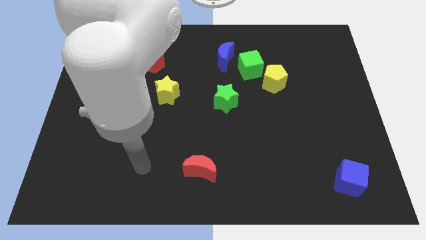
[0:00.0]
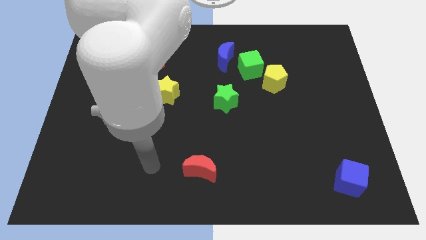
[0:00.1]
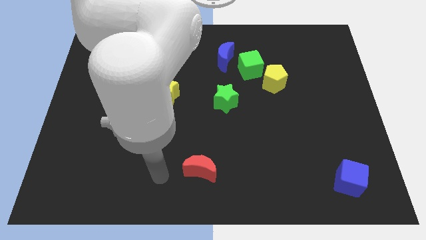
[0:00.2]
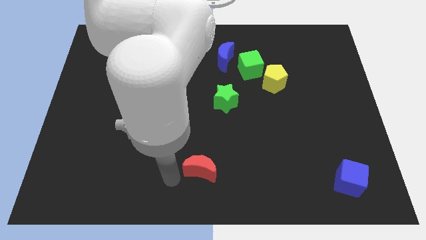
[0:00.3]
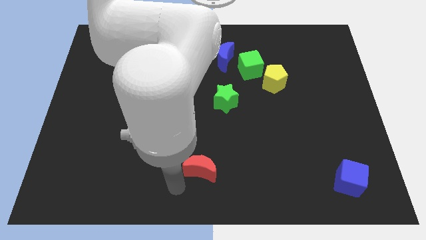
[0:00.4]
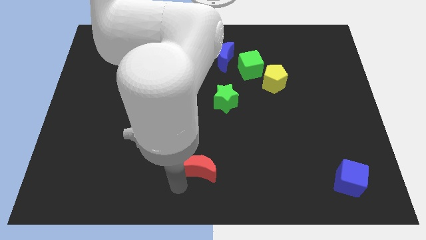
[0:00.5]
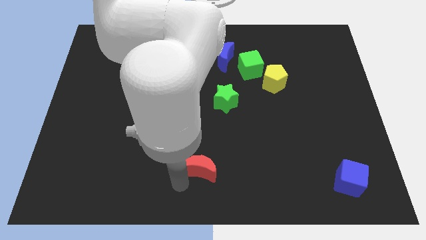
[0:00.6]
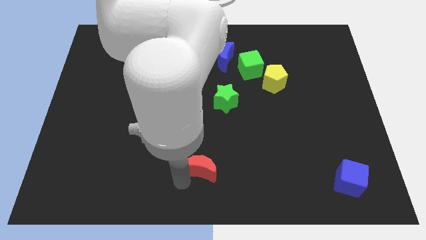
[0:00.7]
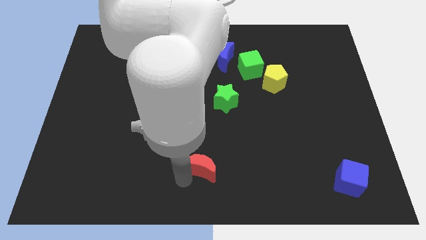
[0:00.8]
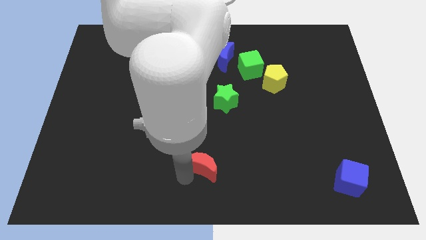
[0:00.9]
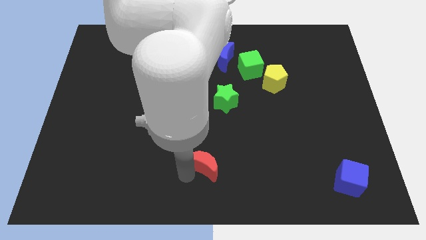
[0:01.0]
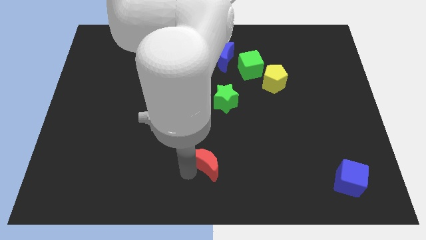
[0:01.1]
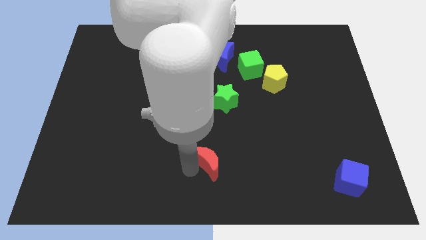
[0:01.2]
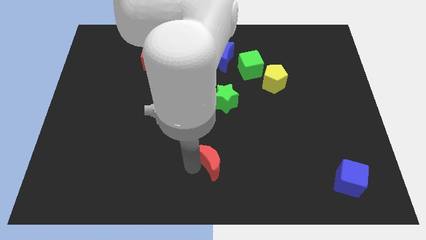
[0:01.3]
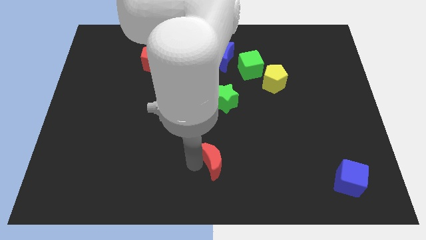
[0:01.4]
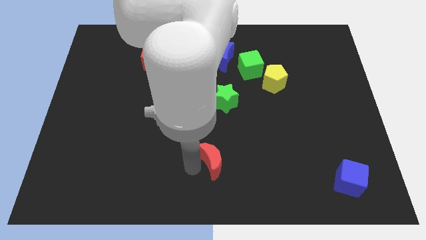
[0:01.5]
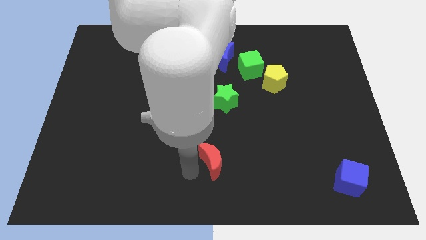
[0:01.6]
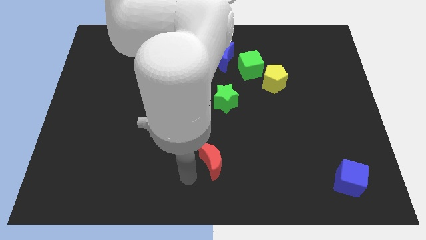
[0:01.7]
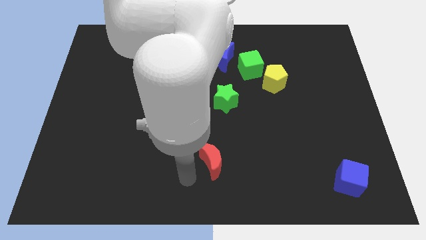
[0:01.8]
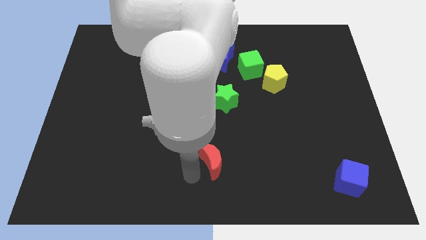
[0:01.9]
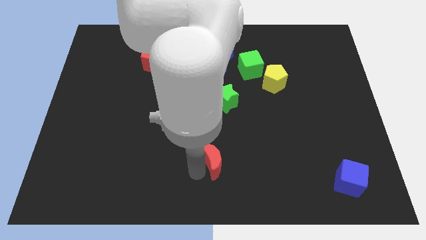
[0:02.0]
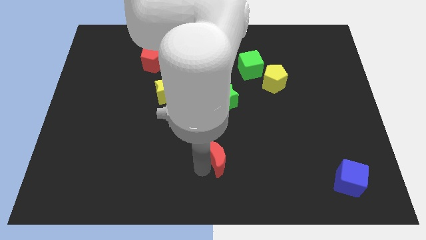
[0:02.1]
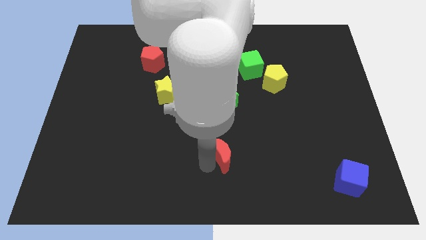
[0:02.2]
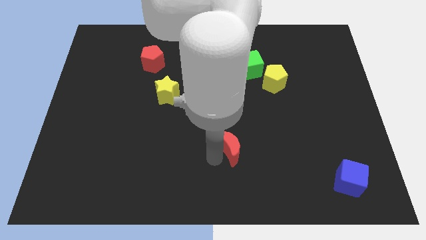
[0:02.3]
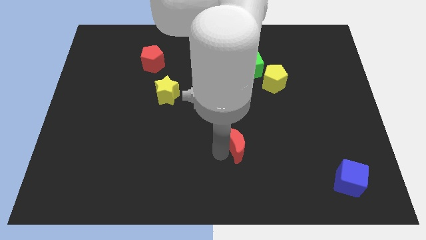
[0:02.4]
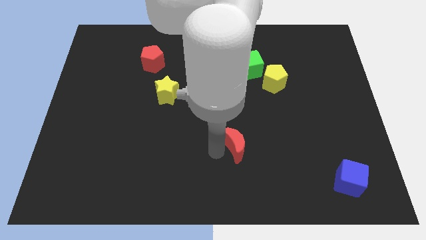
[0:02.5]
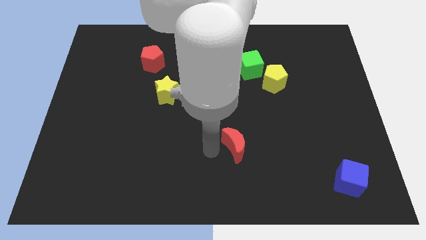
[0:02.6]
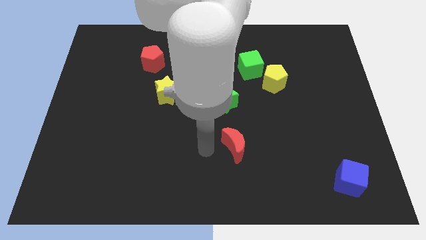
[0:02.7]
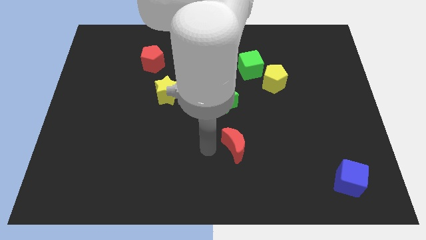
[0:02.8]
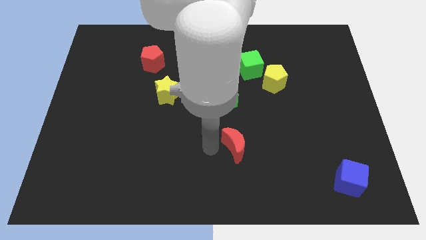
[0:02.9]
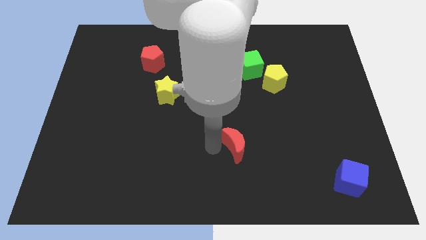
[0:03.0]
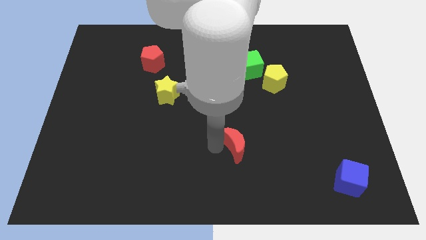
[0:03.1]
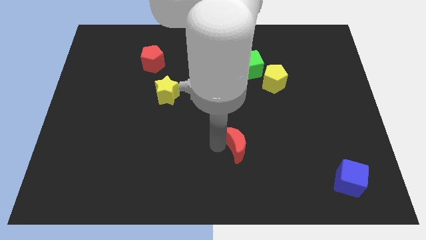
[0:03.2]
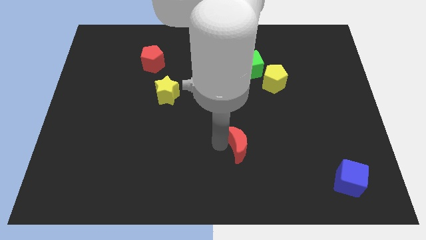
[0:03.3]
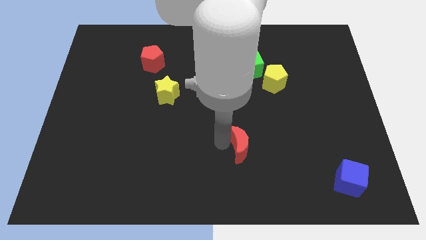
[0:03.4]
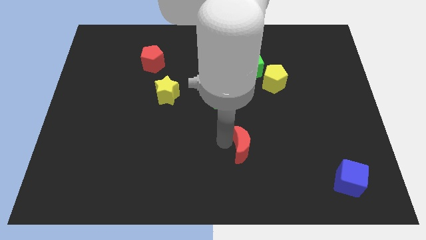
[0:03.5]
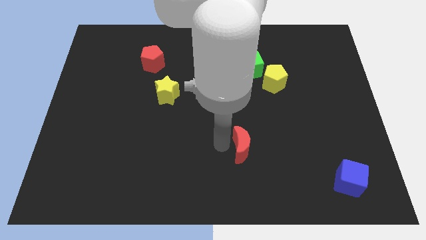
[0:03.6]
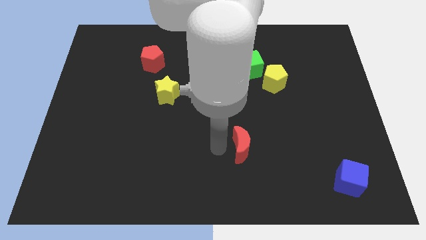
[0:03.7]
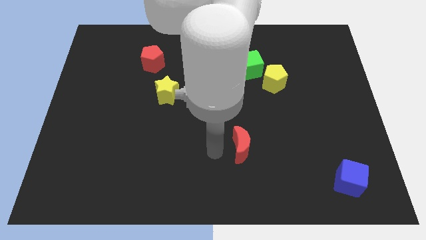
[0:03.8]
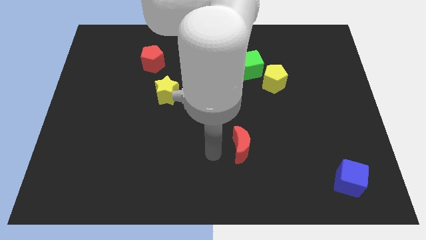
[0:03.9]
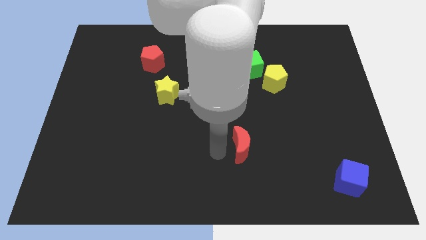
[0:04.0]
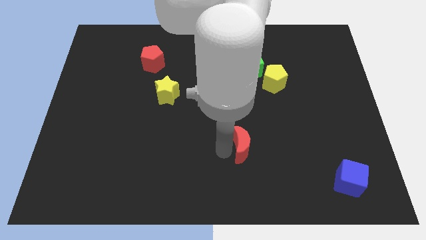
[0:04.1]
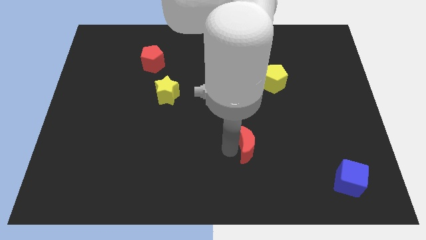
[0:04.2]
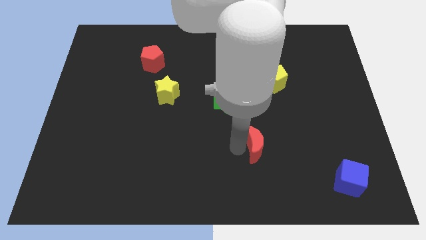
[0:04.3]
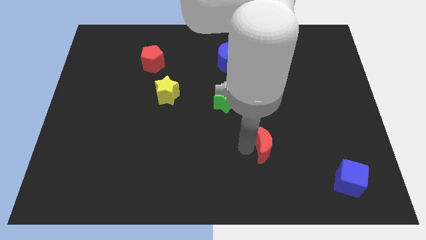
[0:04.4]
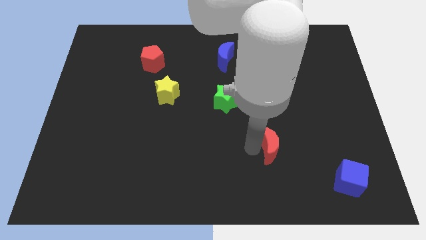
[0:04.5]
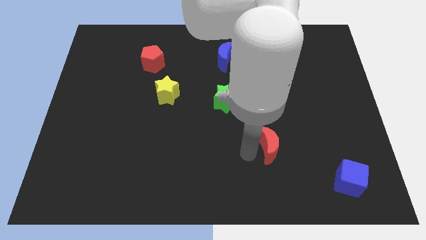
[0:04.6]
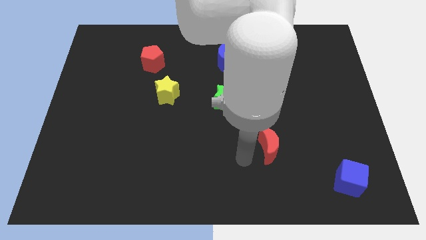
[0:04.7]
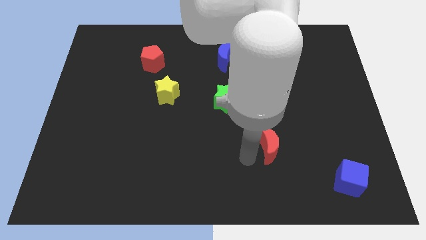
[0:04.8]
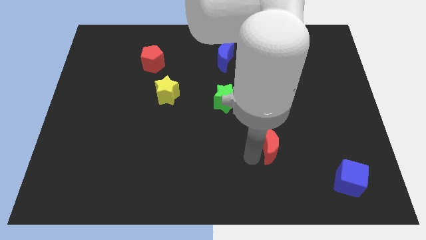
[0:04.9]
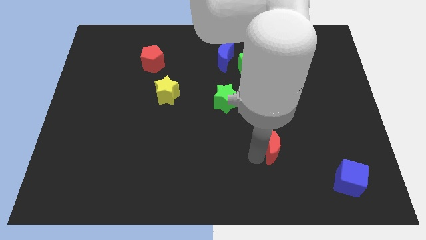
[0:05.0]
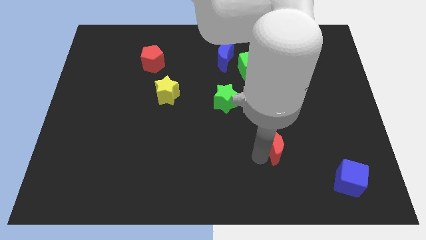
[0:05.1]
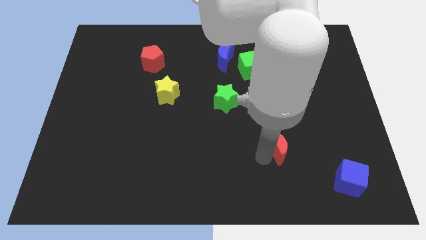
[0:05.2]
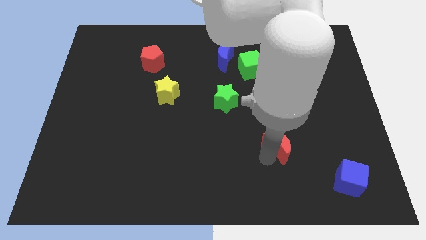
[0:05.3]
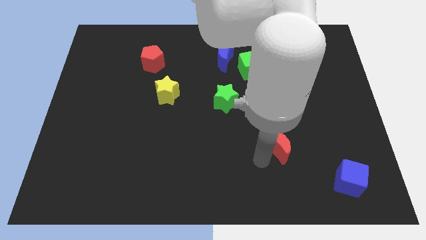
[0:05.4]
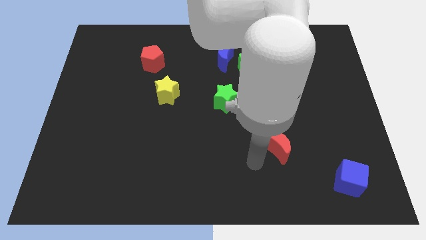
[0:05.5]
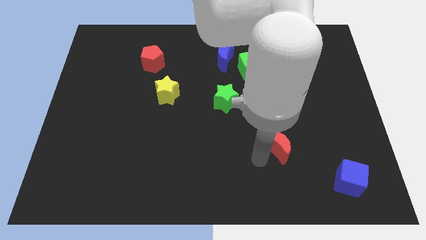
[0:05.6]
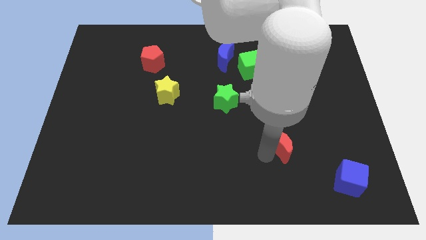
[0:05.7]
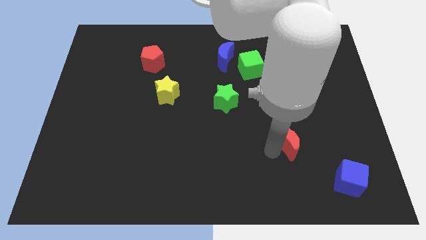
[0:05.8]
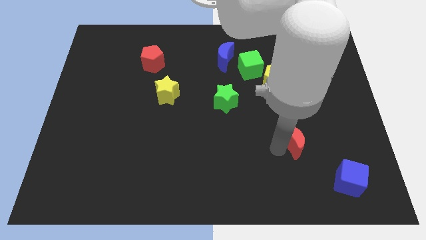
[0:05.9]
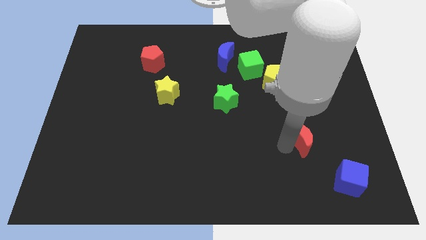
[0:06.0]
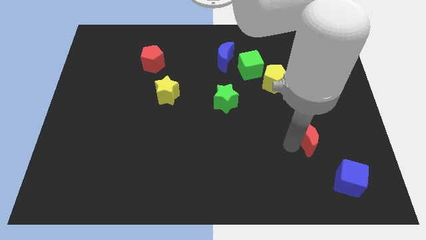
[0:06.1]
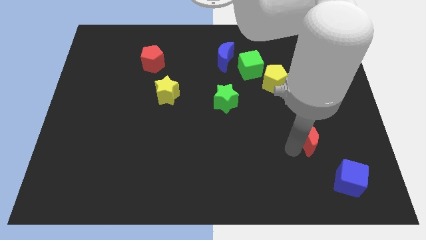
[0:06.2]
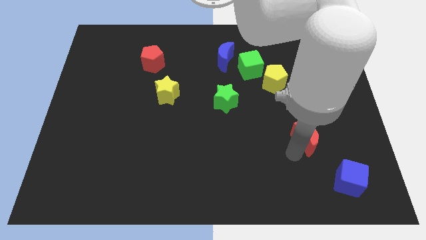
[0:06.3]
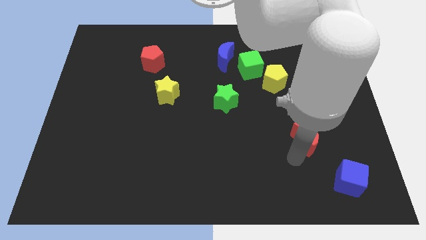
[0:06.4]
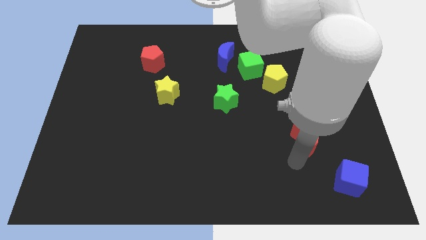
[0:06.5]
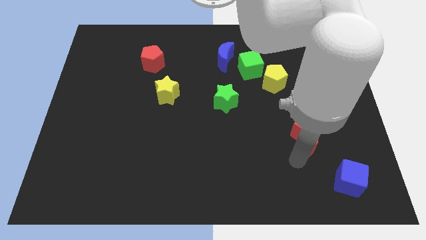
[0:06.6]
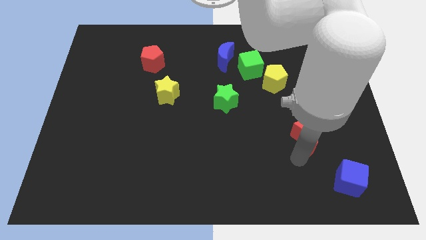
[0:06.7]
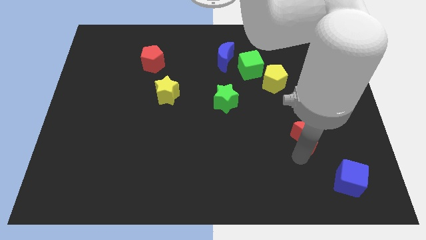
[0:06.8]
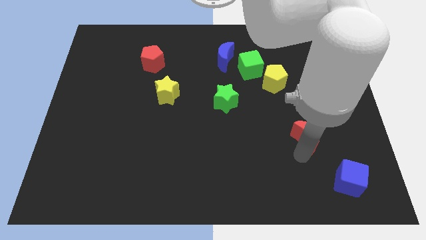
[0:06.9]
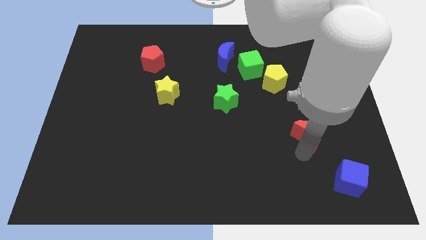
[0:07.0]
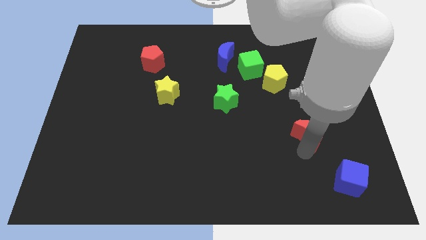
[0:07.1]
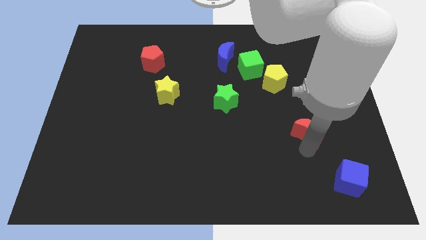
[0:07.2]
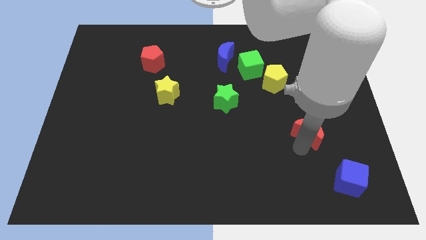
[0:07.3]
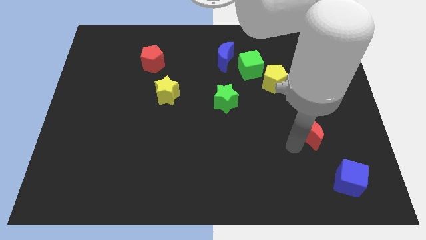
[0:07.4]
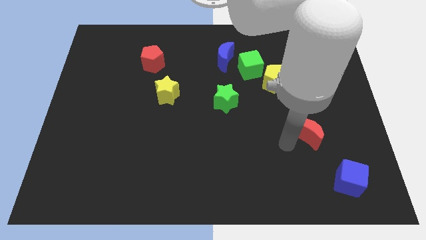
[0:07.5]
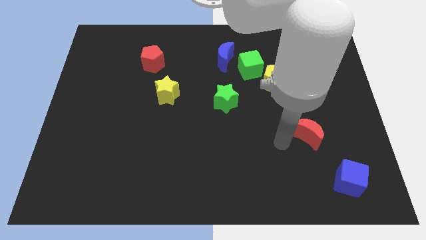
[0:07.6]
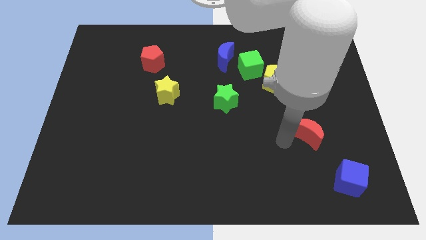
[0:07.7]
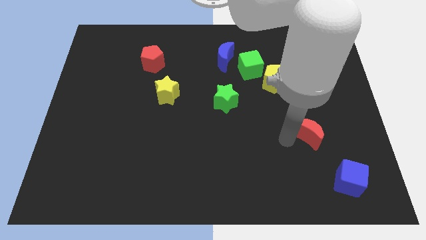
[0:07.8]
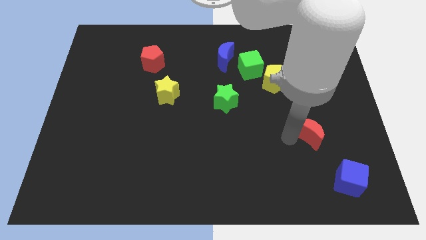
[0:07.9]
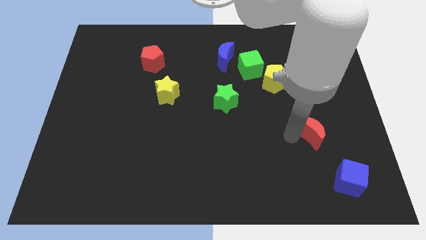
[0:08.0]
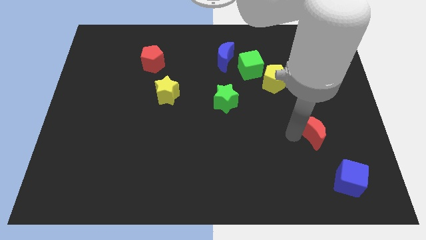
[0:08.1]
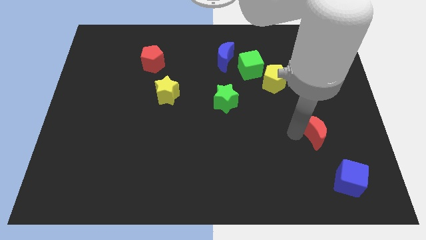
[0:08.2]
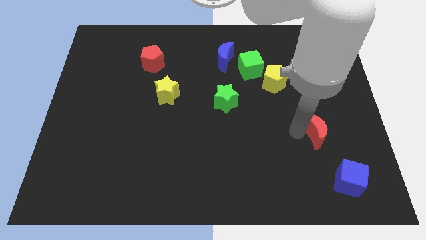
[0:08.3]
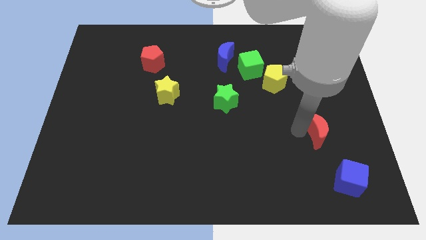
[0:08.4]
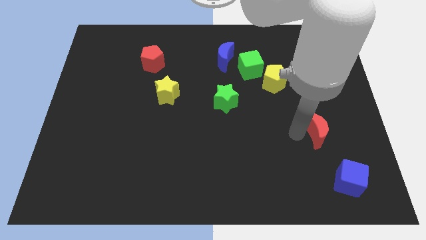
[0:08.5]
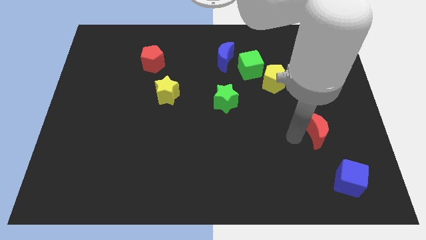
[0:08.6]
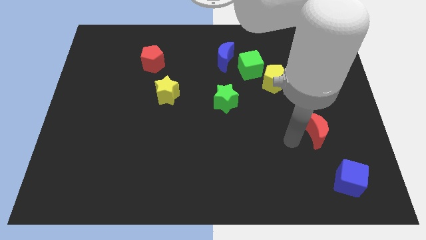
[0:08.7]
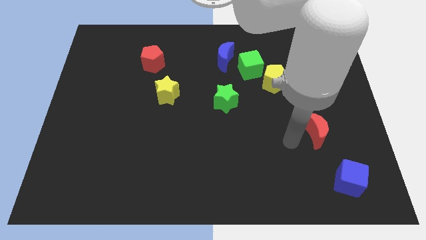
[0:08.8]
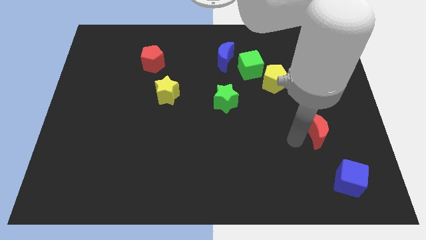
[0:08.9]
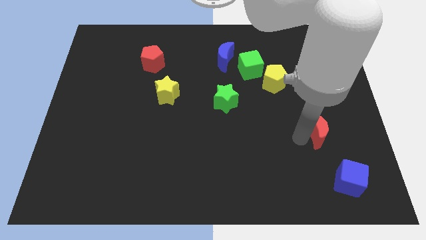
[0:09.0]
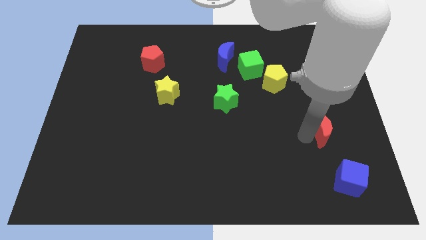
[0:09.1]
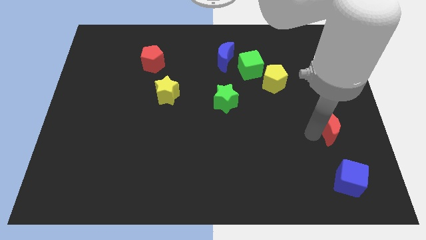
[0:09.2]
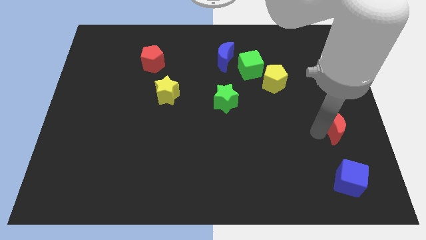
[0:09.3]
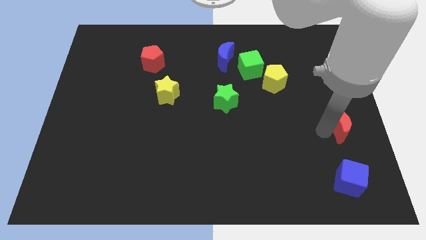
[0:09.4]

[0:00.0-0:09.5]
push the red moon to the right side
